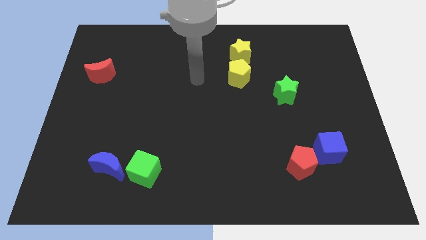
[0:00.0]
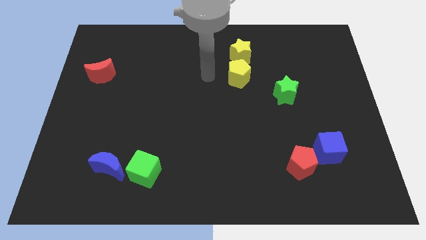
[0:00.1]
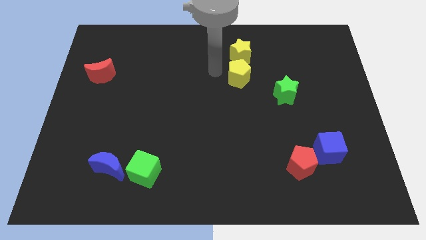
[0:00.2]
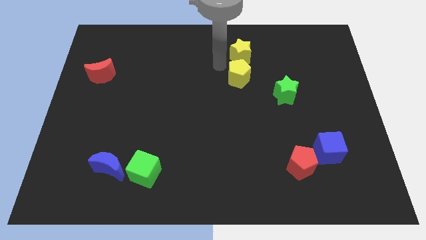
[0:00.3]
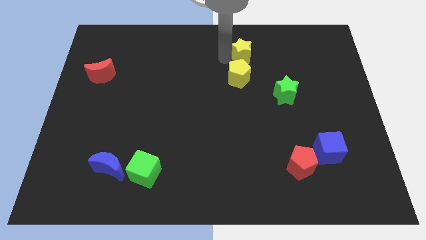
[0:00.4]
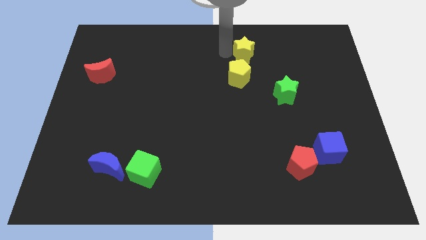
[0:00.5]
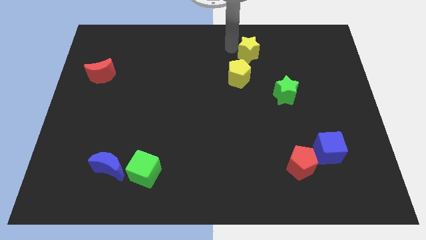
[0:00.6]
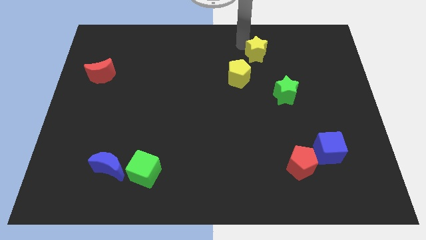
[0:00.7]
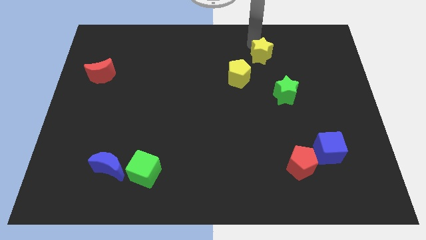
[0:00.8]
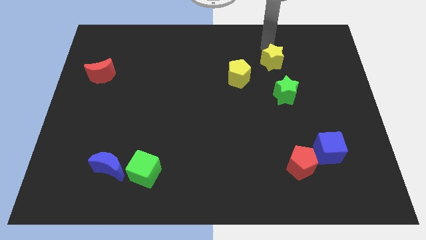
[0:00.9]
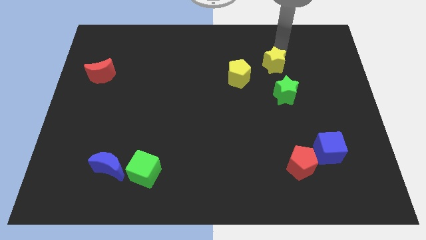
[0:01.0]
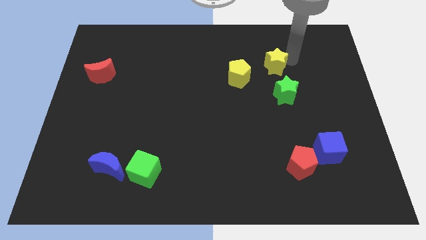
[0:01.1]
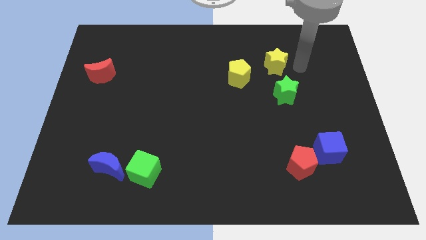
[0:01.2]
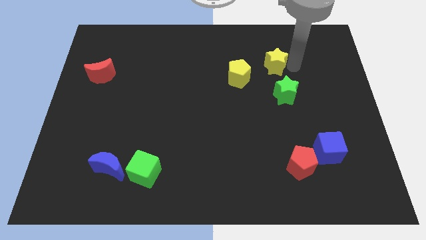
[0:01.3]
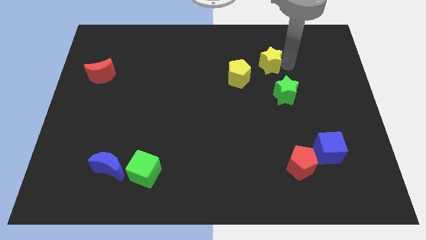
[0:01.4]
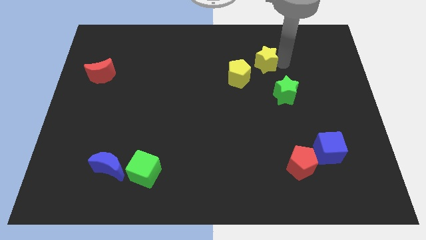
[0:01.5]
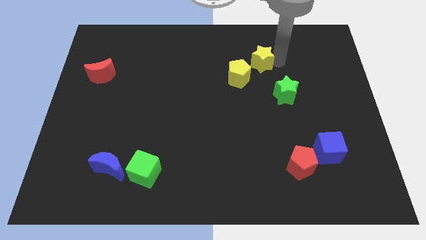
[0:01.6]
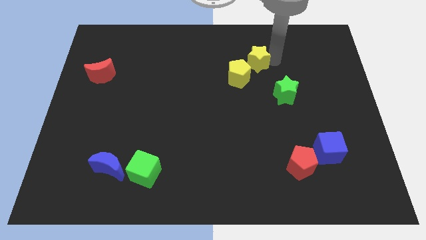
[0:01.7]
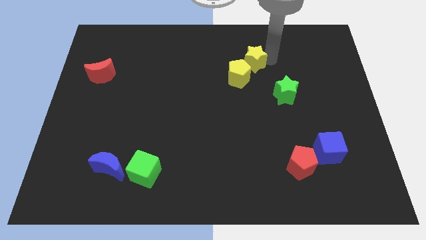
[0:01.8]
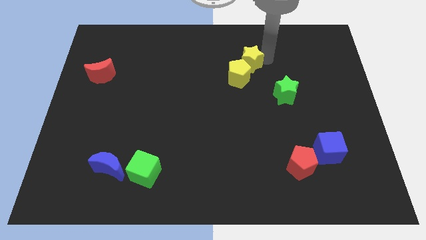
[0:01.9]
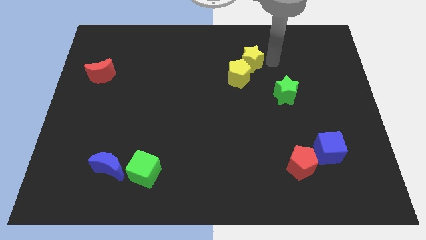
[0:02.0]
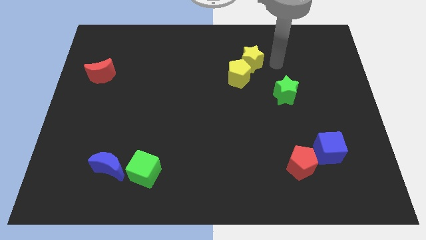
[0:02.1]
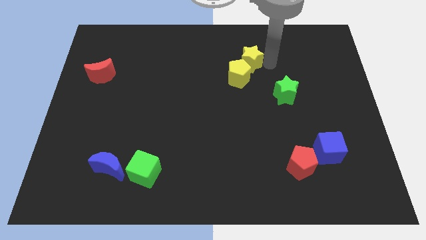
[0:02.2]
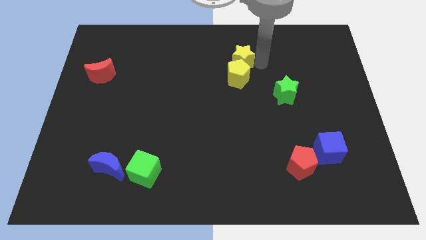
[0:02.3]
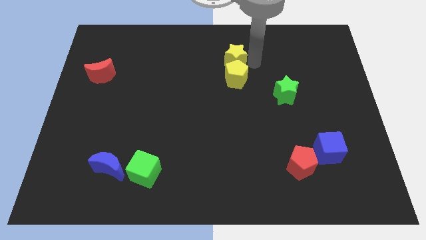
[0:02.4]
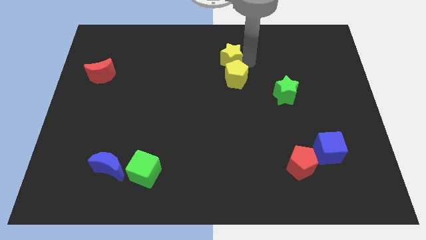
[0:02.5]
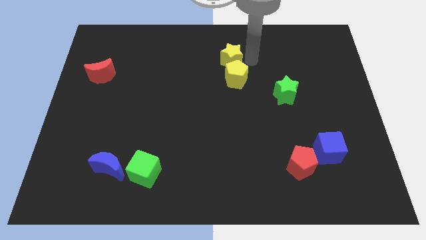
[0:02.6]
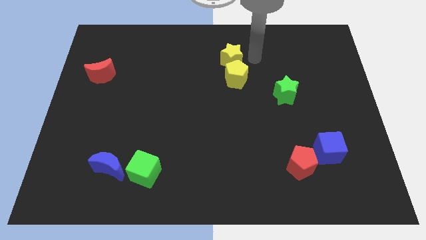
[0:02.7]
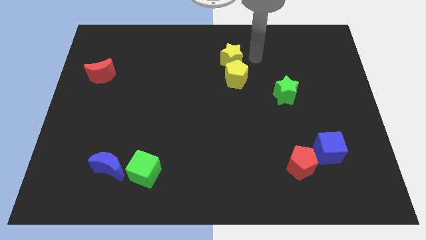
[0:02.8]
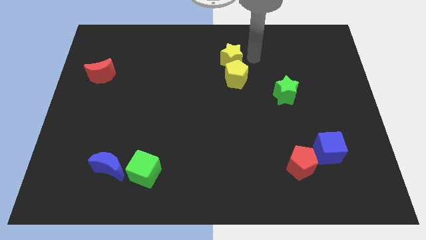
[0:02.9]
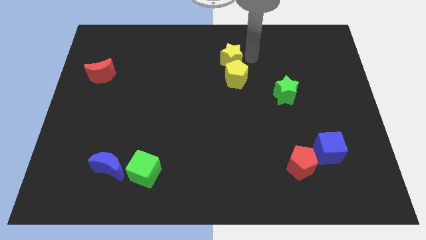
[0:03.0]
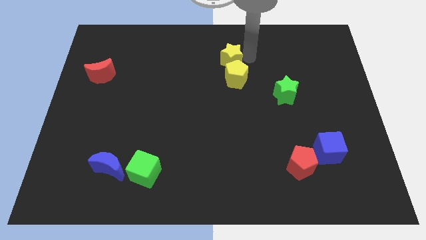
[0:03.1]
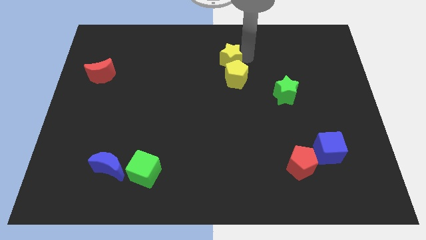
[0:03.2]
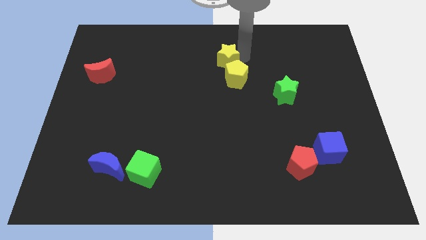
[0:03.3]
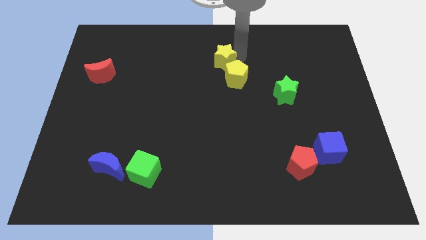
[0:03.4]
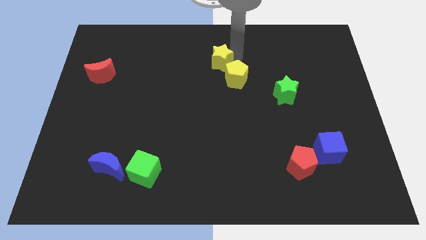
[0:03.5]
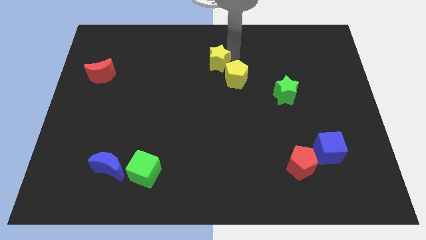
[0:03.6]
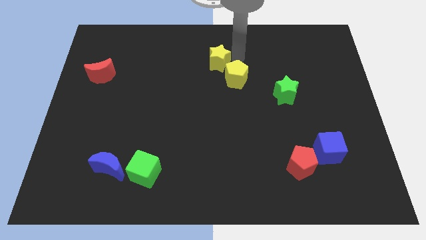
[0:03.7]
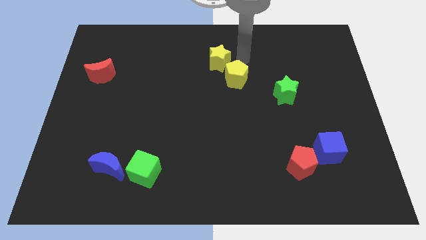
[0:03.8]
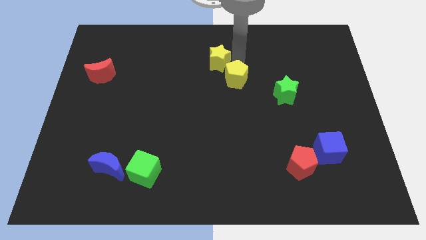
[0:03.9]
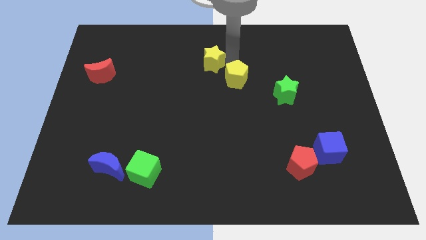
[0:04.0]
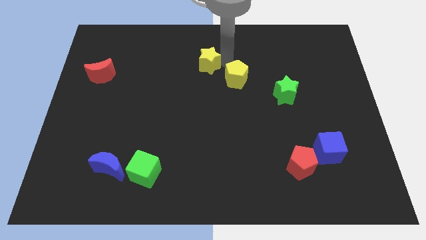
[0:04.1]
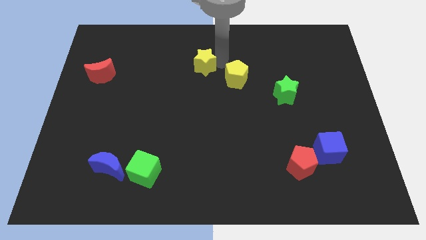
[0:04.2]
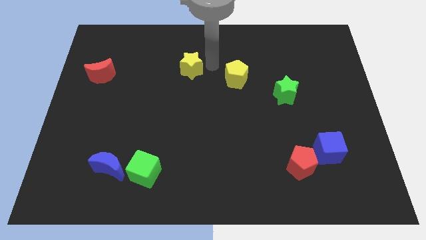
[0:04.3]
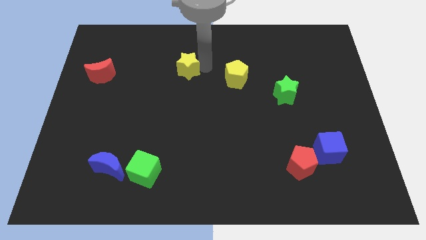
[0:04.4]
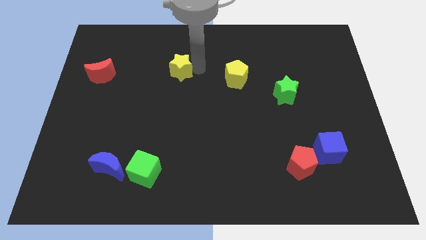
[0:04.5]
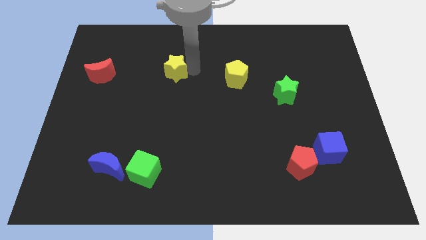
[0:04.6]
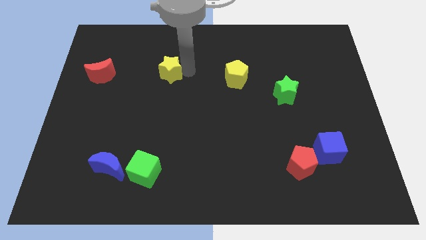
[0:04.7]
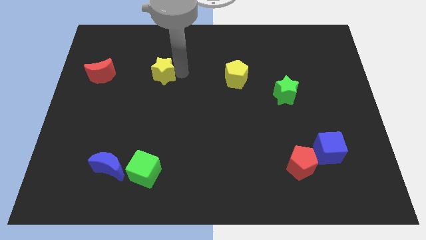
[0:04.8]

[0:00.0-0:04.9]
put the yellow star just right of the red moon

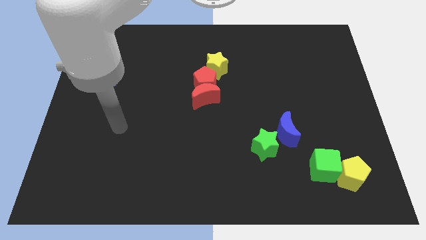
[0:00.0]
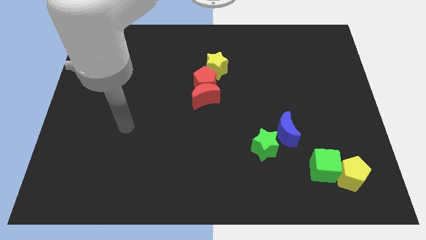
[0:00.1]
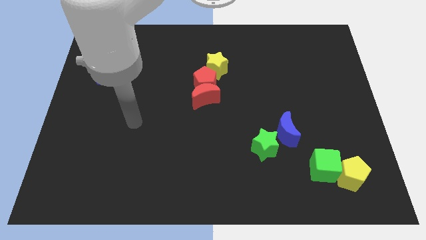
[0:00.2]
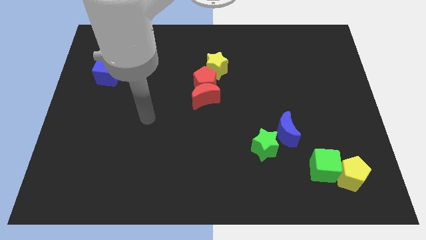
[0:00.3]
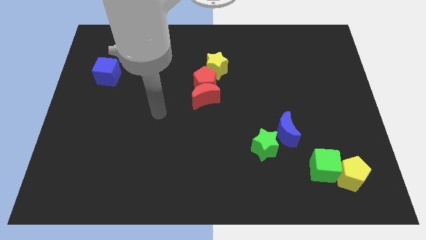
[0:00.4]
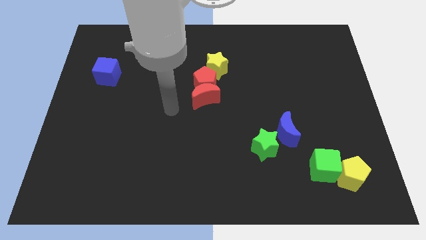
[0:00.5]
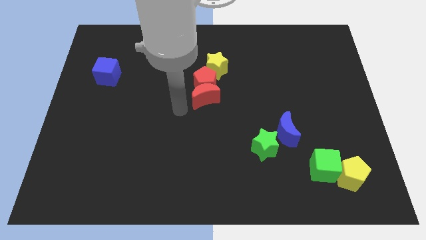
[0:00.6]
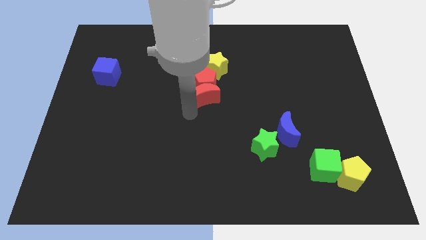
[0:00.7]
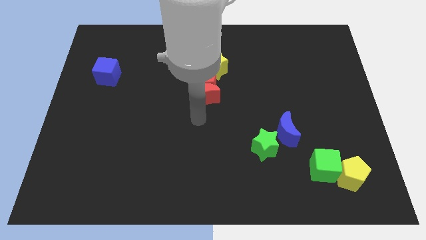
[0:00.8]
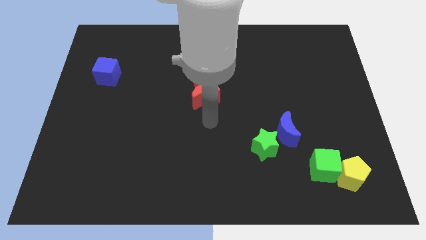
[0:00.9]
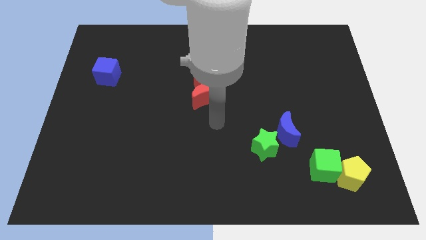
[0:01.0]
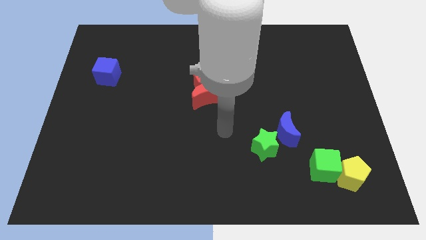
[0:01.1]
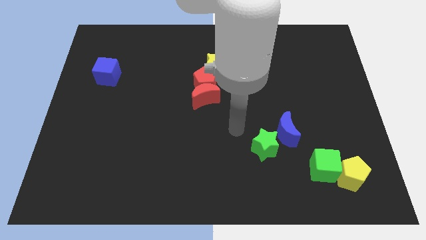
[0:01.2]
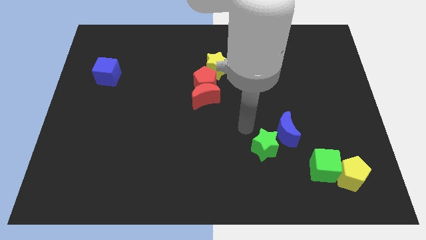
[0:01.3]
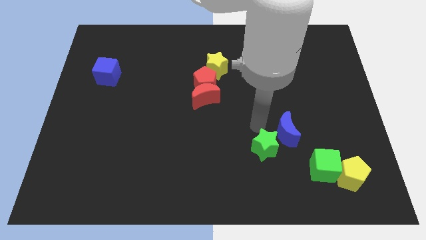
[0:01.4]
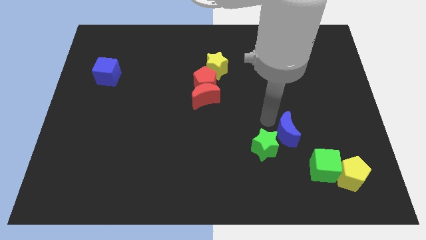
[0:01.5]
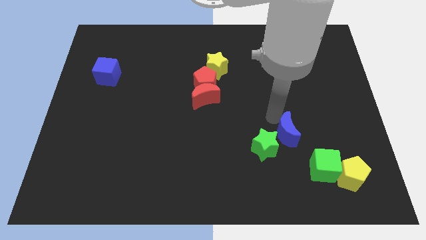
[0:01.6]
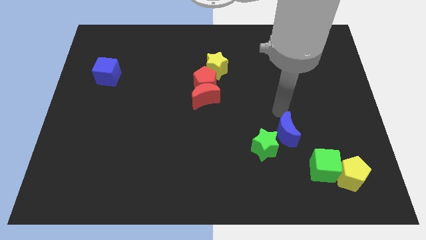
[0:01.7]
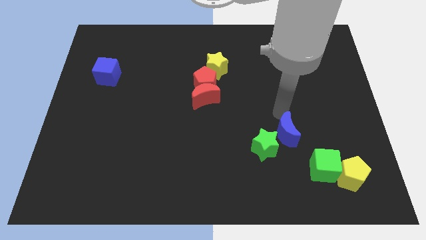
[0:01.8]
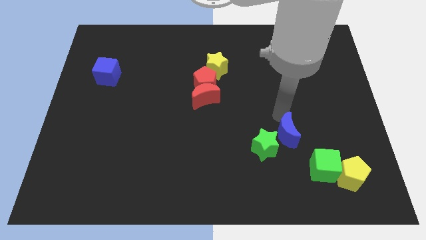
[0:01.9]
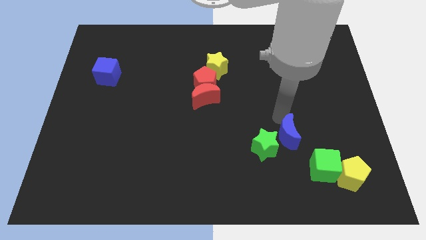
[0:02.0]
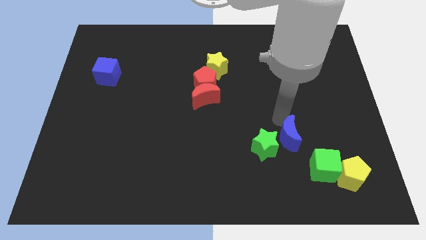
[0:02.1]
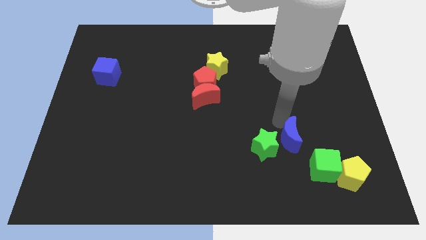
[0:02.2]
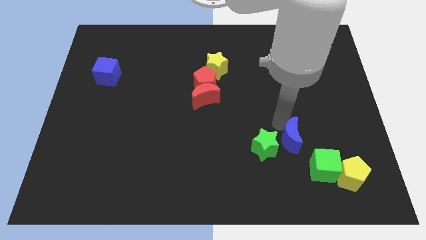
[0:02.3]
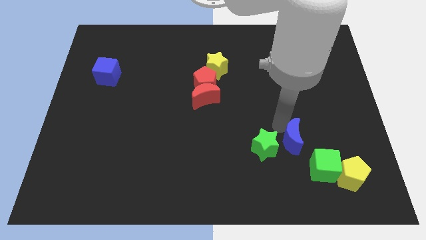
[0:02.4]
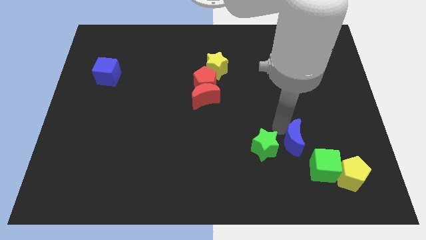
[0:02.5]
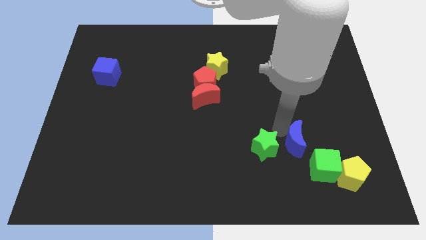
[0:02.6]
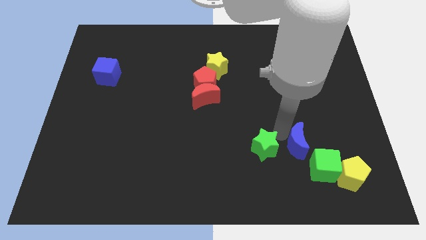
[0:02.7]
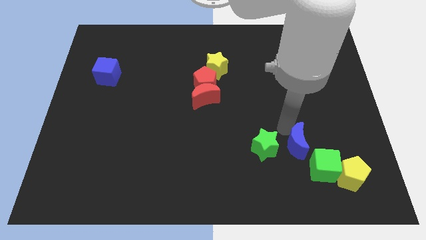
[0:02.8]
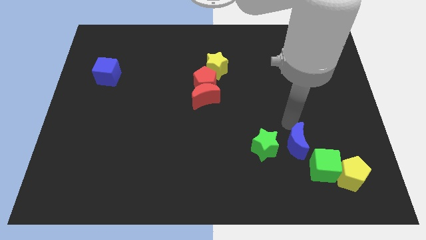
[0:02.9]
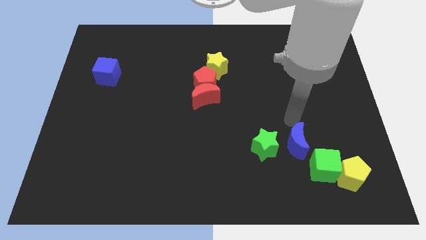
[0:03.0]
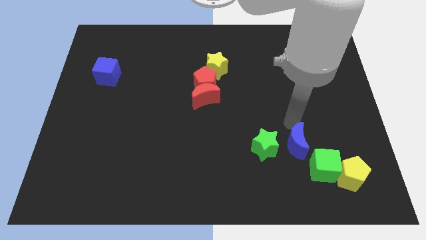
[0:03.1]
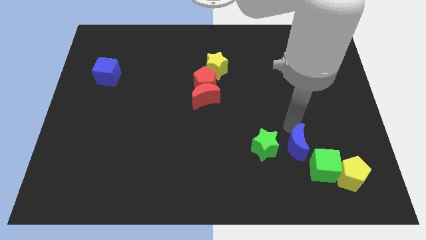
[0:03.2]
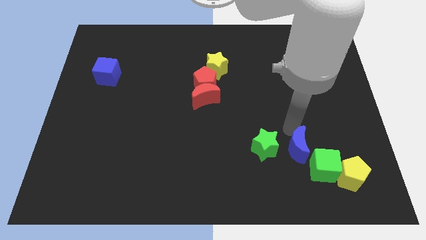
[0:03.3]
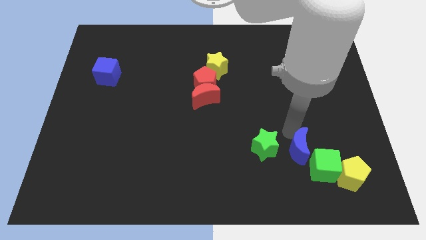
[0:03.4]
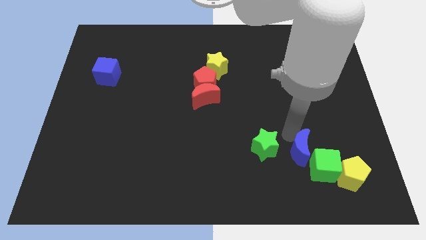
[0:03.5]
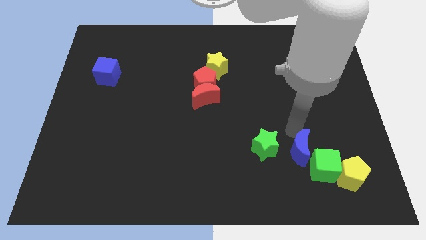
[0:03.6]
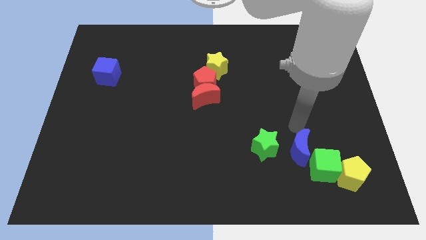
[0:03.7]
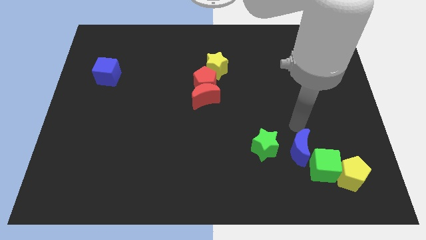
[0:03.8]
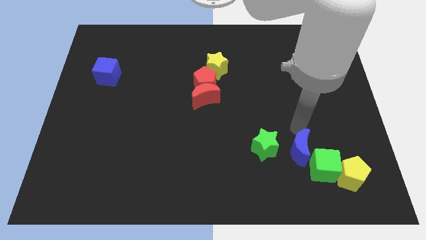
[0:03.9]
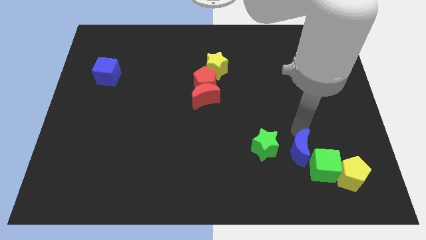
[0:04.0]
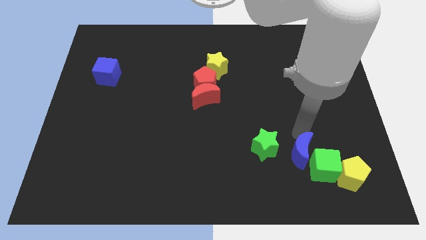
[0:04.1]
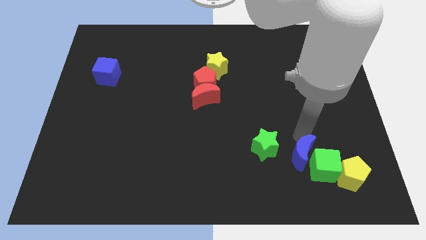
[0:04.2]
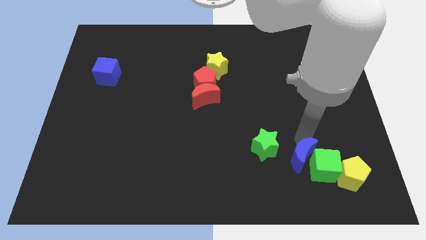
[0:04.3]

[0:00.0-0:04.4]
push the blue moon just left of the yellow pentagon
